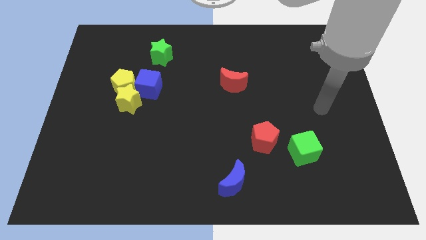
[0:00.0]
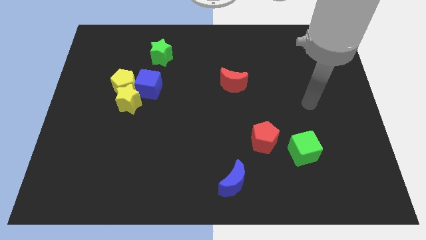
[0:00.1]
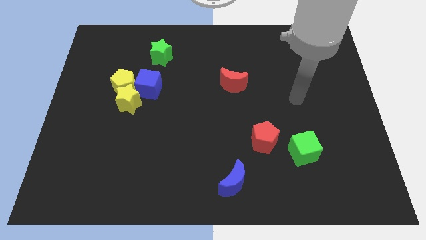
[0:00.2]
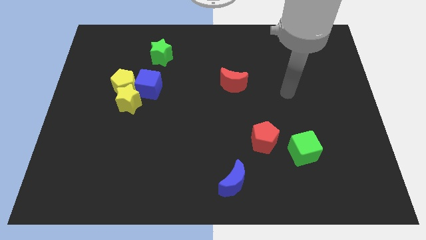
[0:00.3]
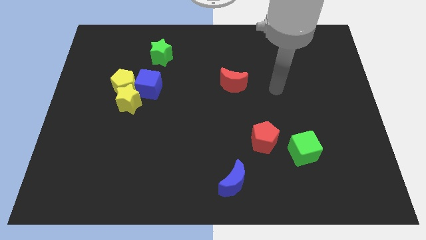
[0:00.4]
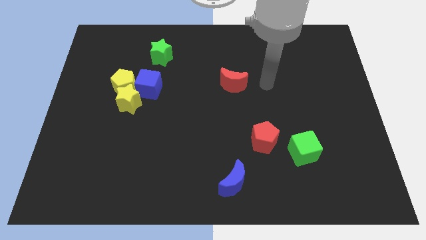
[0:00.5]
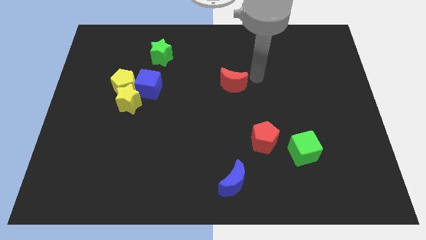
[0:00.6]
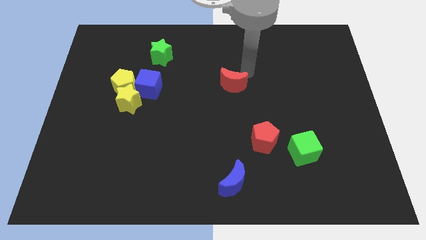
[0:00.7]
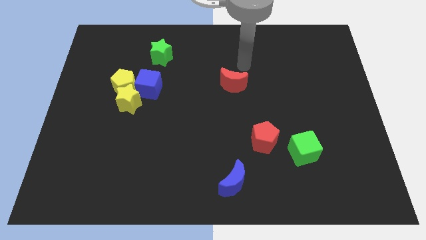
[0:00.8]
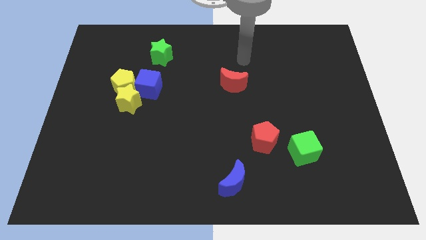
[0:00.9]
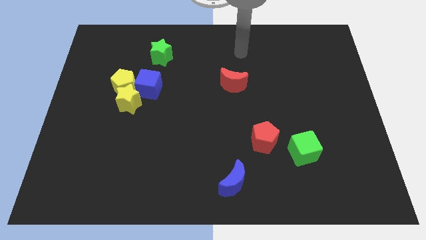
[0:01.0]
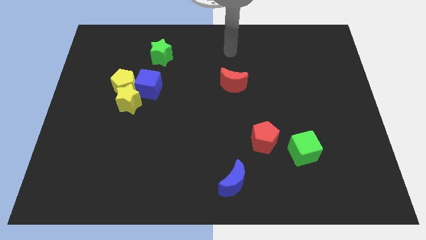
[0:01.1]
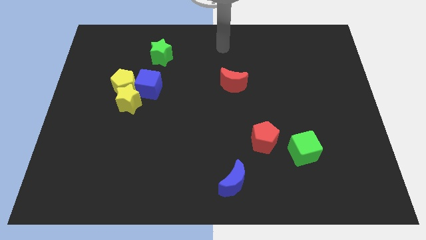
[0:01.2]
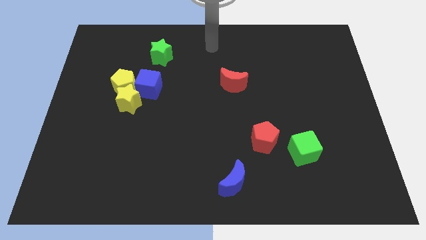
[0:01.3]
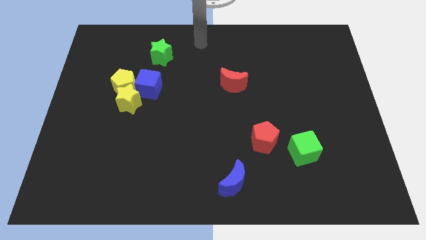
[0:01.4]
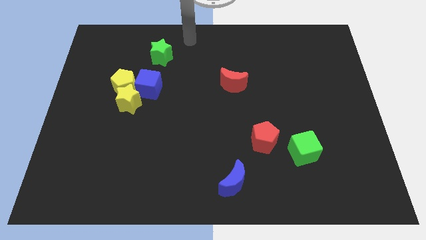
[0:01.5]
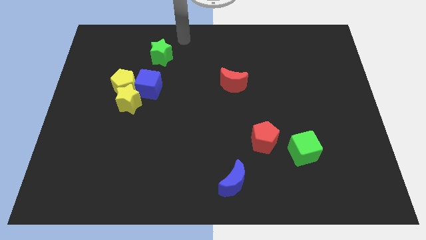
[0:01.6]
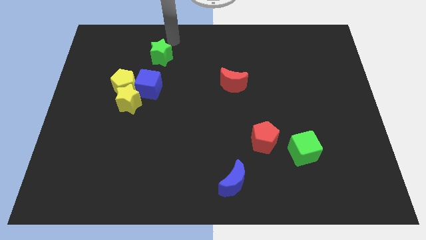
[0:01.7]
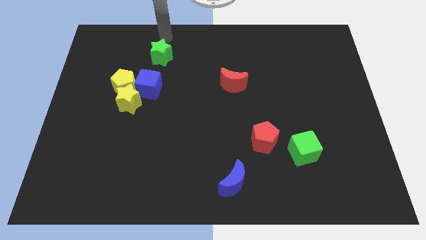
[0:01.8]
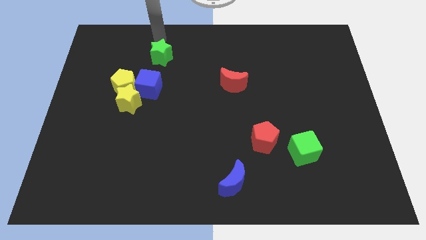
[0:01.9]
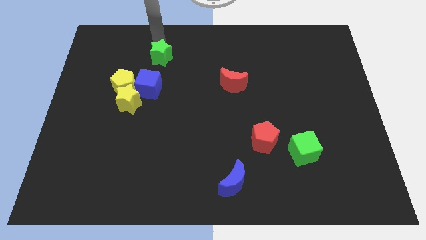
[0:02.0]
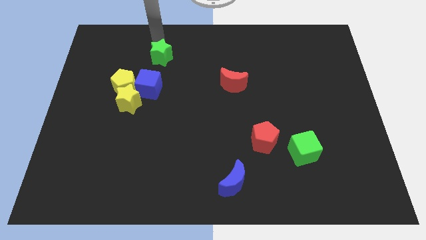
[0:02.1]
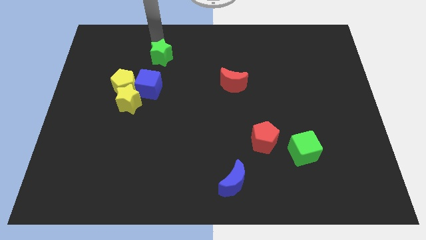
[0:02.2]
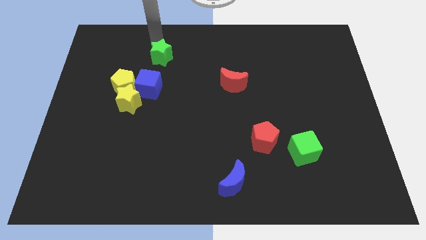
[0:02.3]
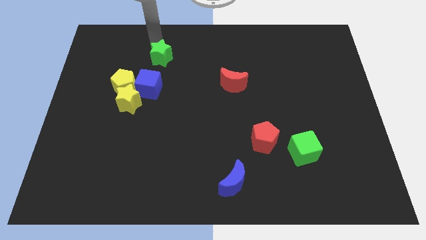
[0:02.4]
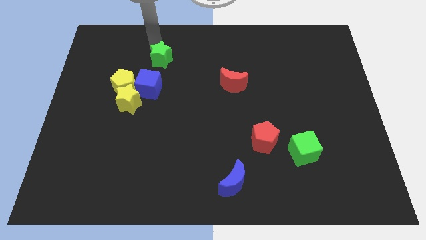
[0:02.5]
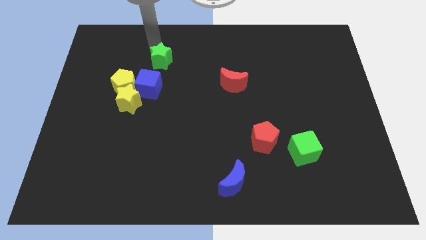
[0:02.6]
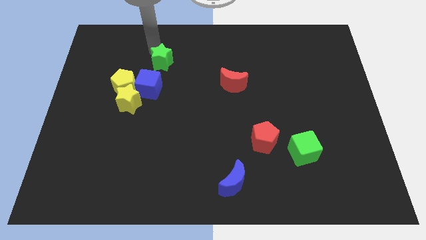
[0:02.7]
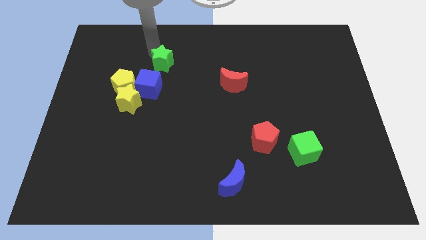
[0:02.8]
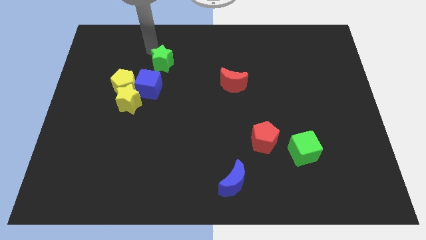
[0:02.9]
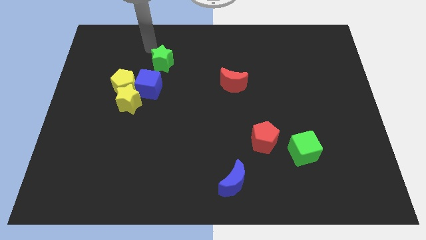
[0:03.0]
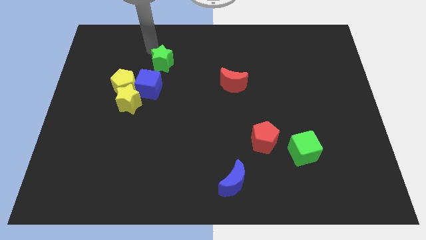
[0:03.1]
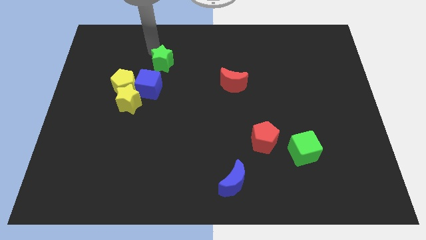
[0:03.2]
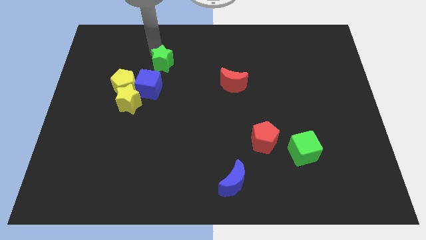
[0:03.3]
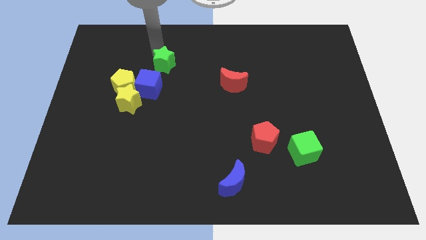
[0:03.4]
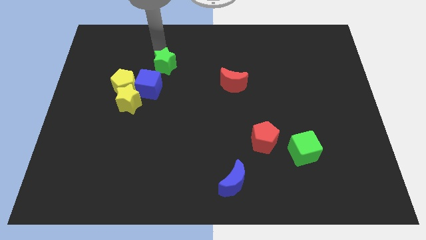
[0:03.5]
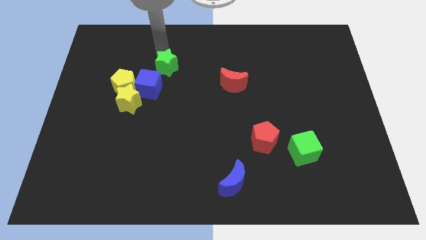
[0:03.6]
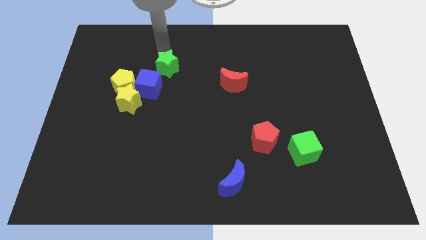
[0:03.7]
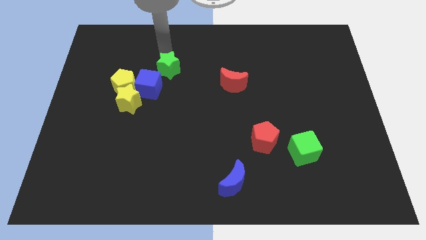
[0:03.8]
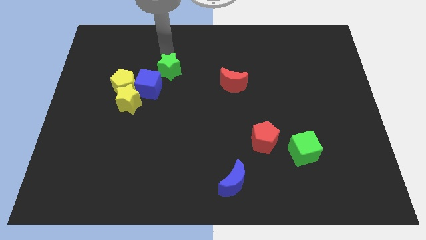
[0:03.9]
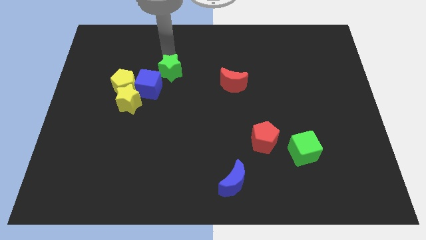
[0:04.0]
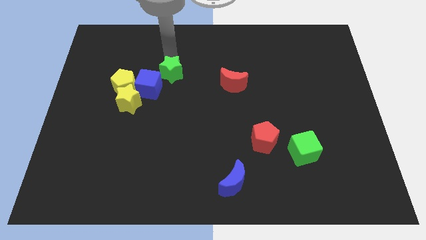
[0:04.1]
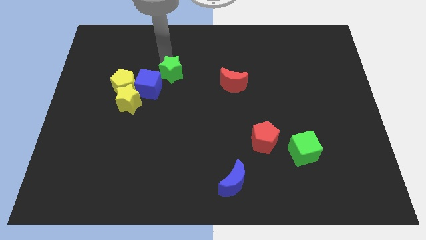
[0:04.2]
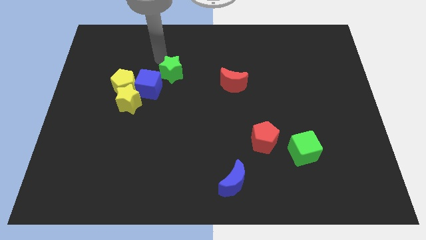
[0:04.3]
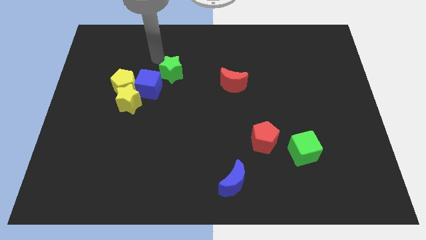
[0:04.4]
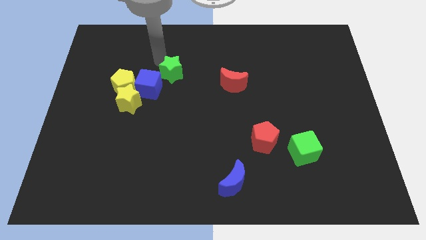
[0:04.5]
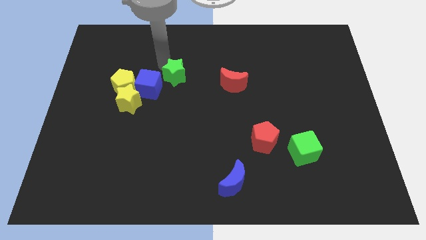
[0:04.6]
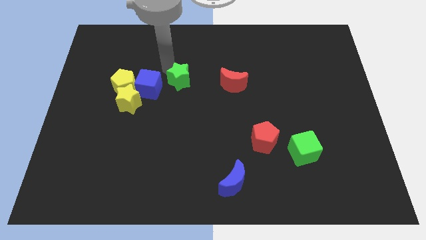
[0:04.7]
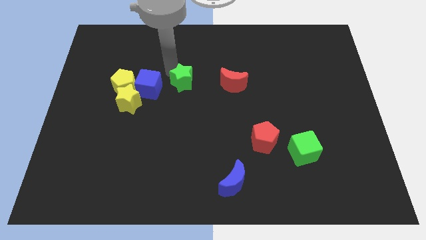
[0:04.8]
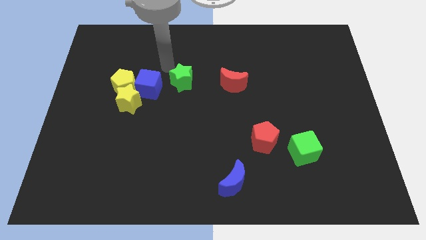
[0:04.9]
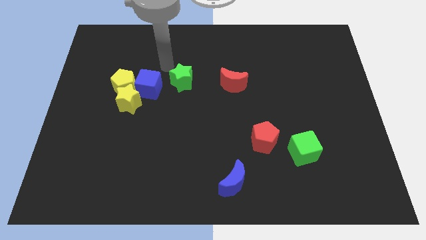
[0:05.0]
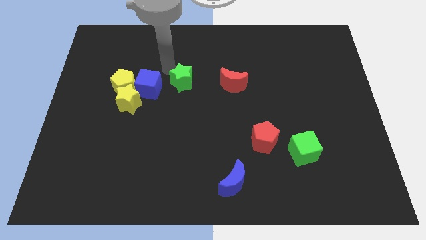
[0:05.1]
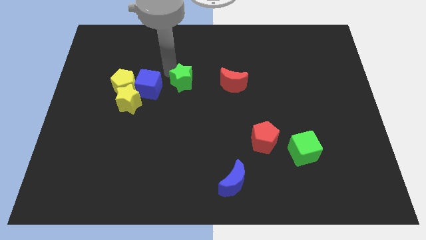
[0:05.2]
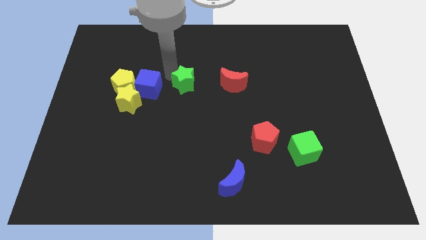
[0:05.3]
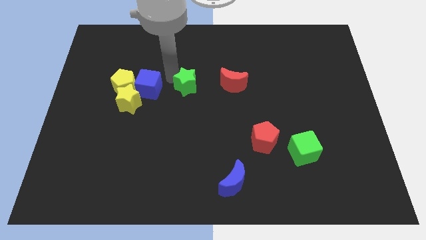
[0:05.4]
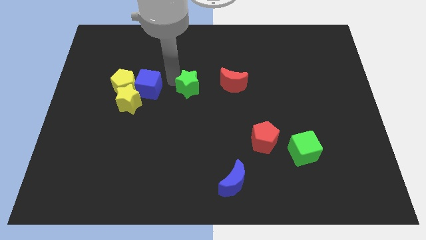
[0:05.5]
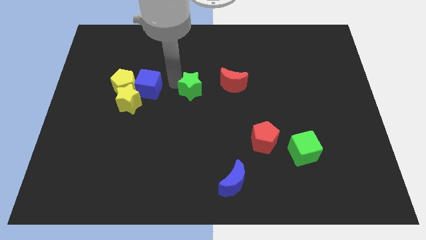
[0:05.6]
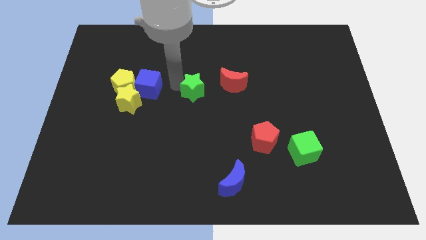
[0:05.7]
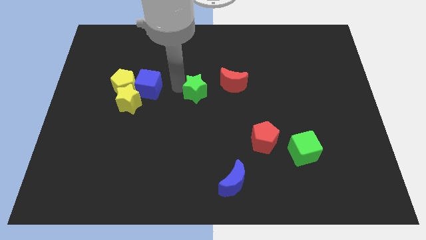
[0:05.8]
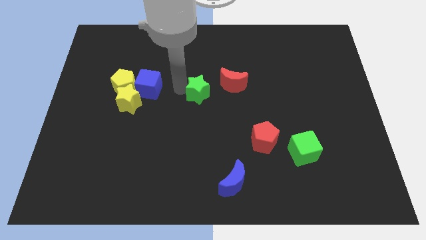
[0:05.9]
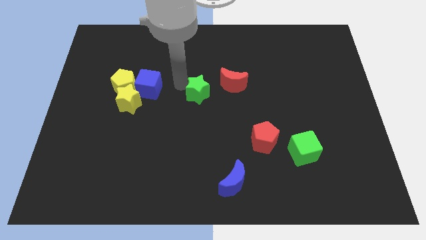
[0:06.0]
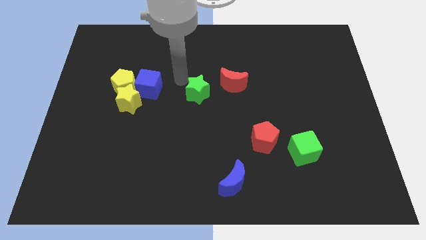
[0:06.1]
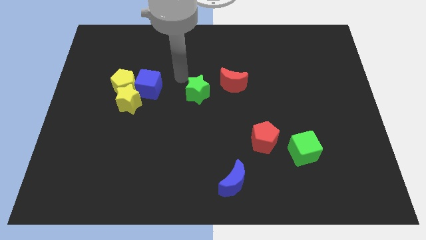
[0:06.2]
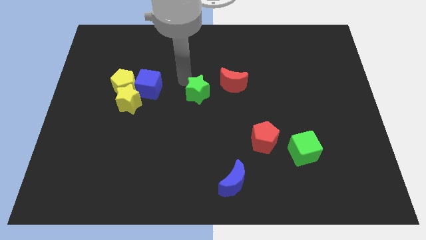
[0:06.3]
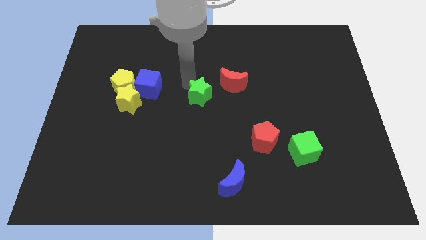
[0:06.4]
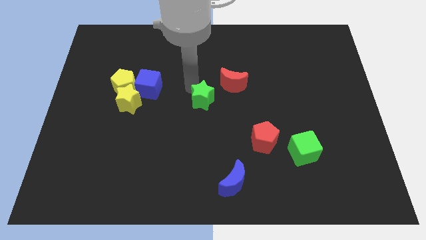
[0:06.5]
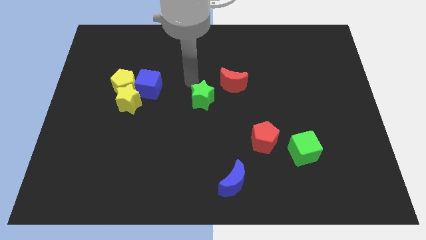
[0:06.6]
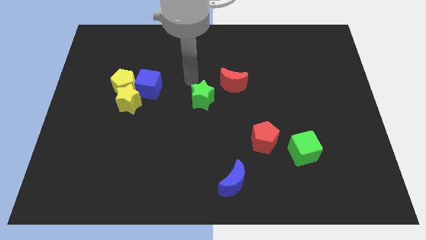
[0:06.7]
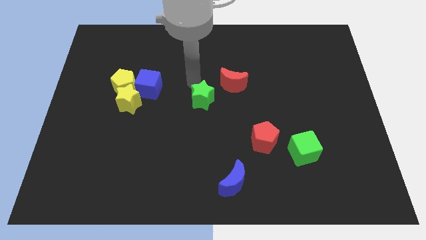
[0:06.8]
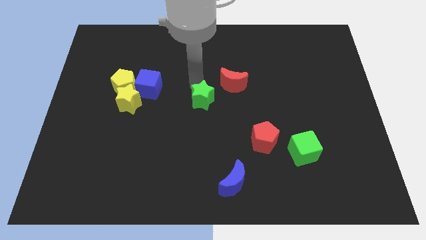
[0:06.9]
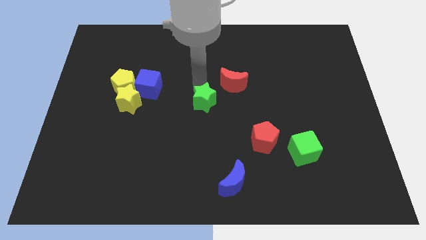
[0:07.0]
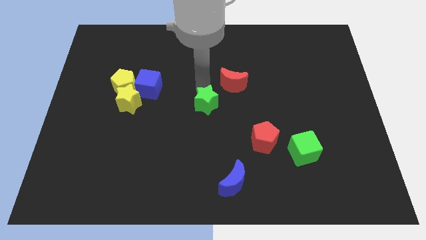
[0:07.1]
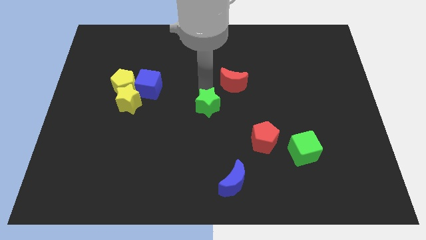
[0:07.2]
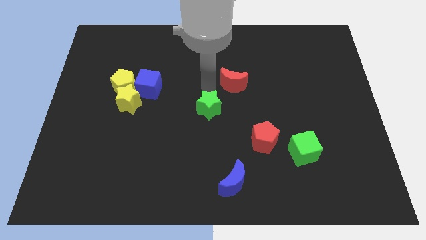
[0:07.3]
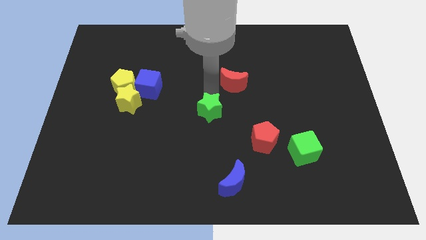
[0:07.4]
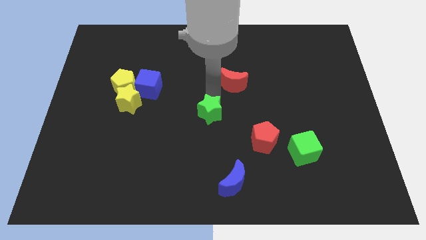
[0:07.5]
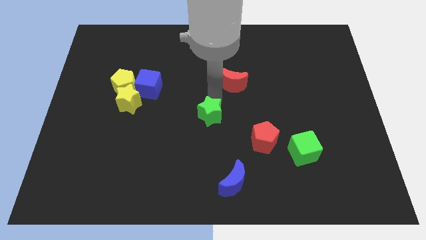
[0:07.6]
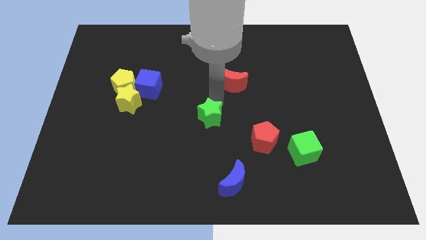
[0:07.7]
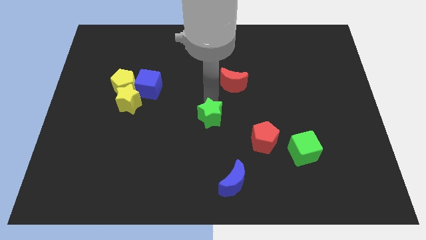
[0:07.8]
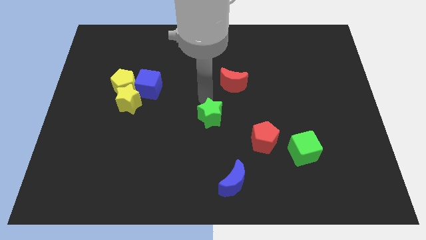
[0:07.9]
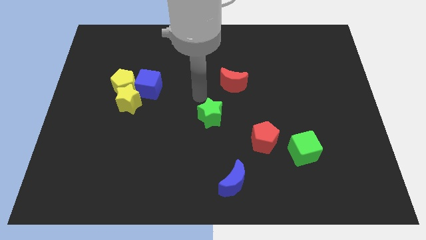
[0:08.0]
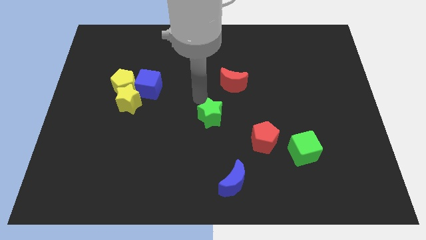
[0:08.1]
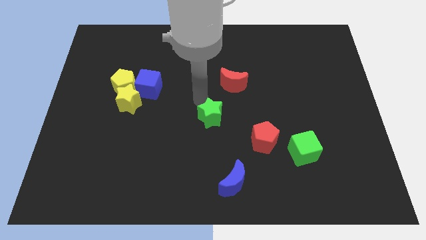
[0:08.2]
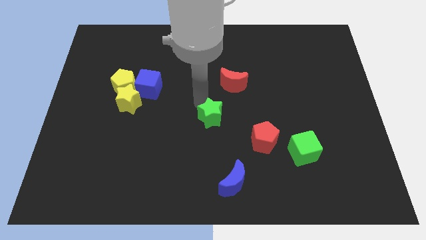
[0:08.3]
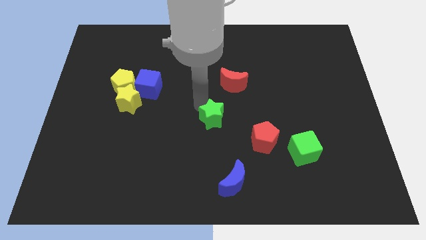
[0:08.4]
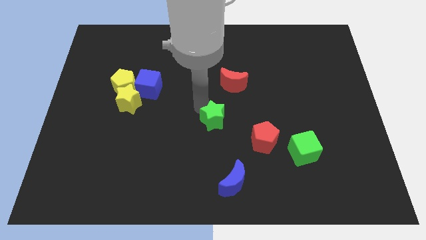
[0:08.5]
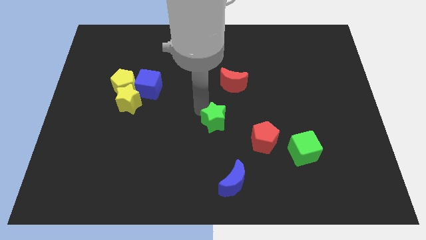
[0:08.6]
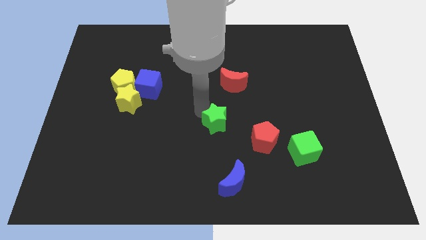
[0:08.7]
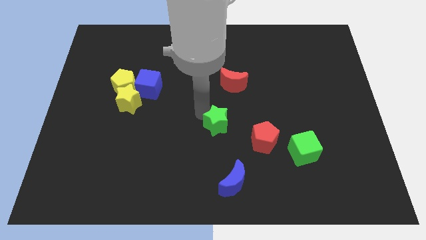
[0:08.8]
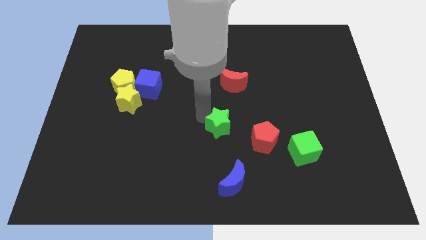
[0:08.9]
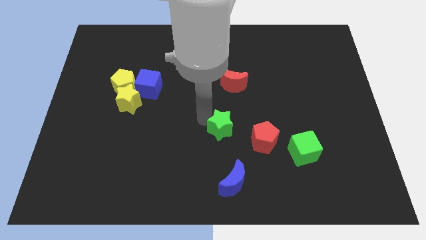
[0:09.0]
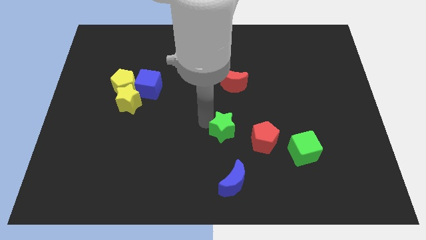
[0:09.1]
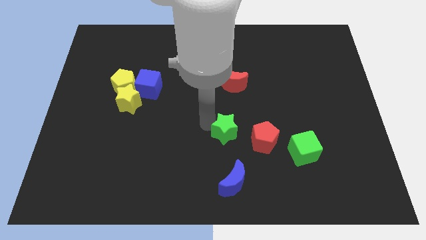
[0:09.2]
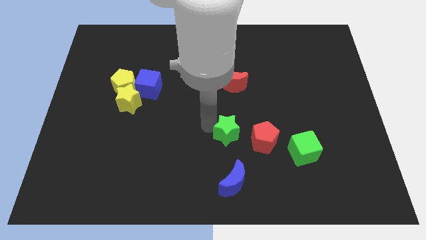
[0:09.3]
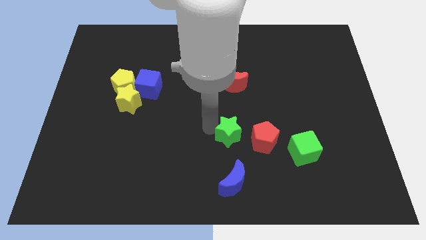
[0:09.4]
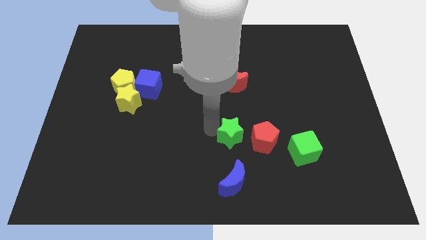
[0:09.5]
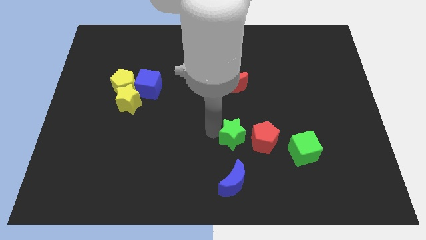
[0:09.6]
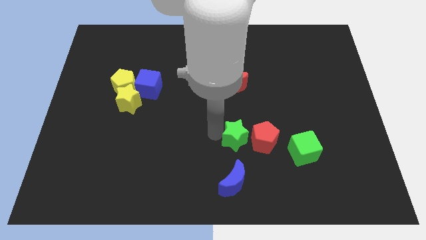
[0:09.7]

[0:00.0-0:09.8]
put the green star to the left of the green cube
